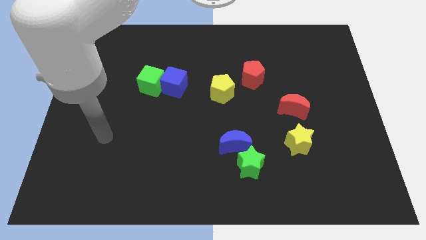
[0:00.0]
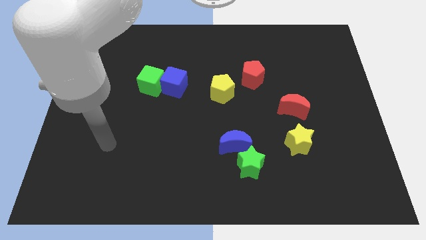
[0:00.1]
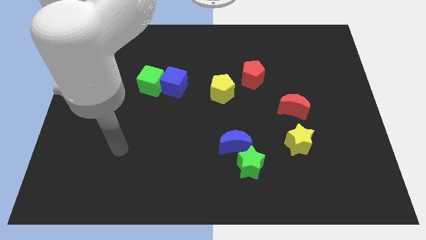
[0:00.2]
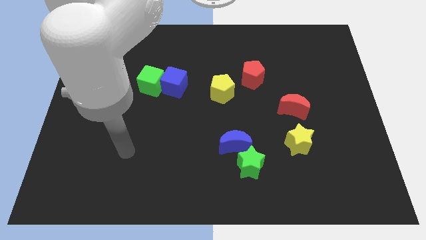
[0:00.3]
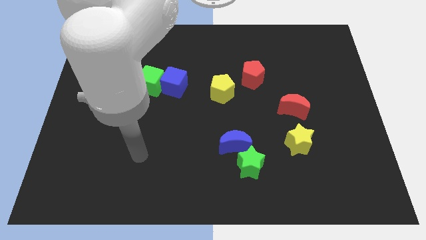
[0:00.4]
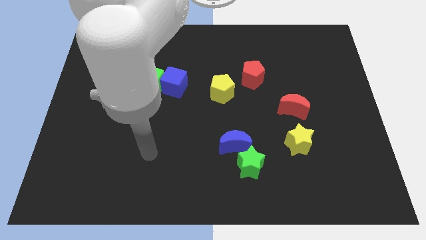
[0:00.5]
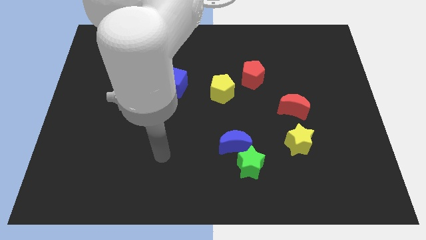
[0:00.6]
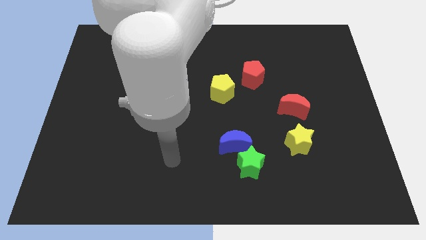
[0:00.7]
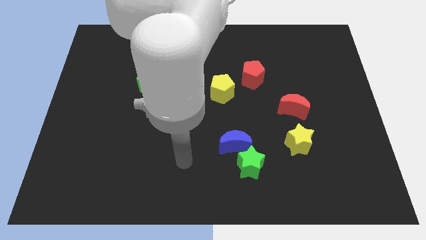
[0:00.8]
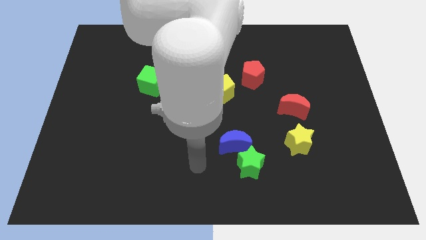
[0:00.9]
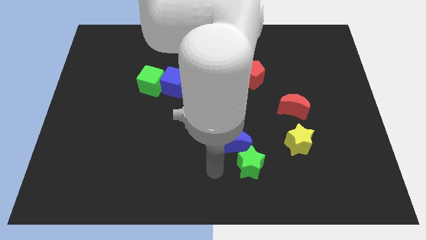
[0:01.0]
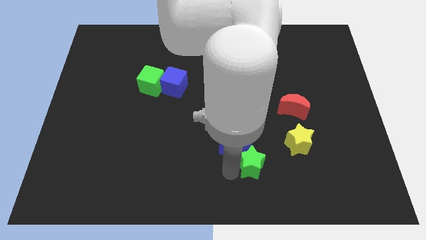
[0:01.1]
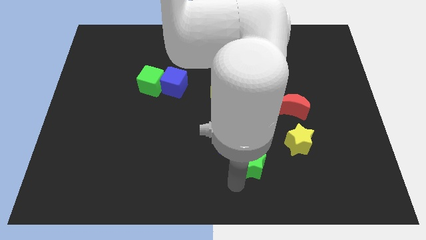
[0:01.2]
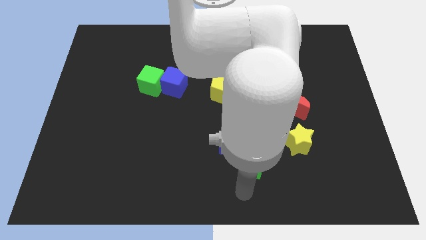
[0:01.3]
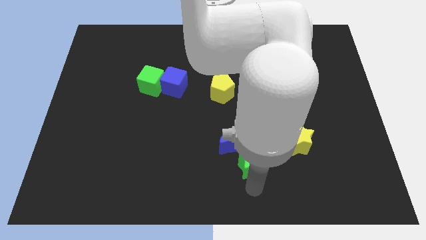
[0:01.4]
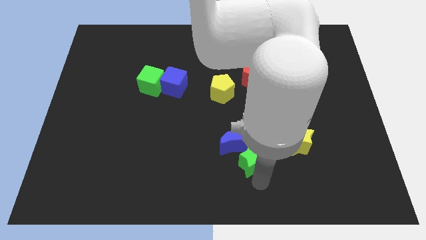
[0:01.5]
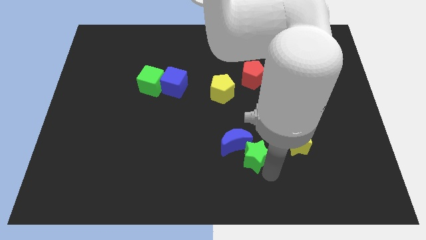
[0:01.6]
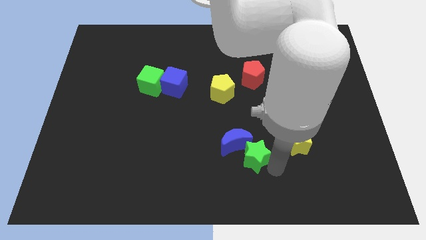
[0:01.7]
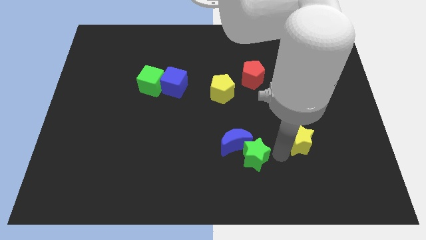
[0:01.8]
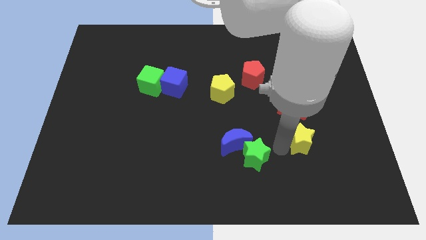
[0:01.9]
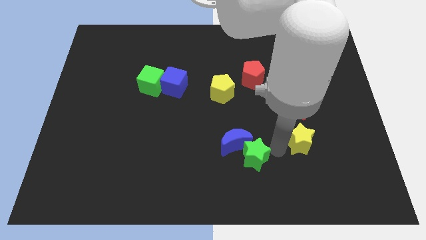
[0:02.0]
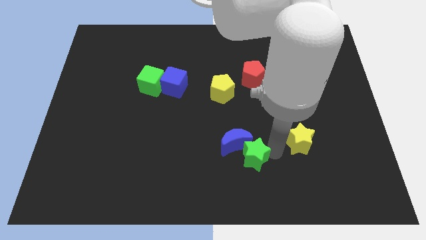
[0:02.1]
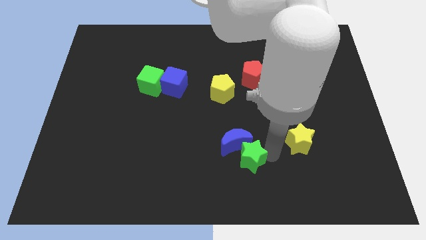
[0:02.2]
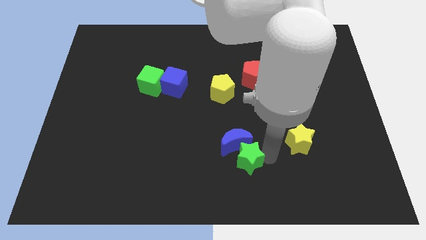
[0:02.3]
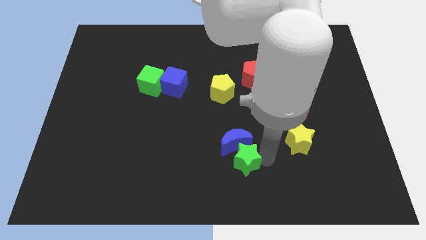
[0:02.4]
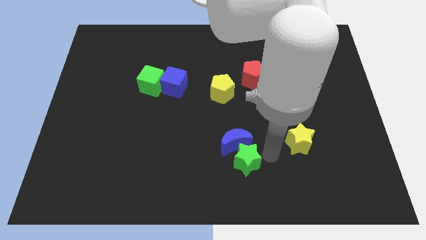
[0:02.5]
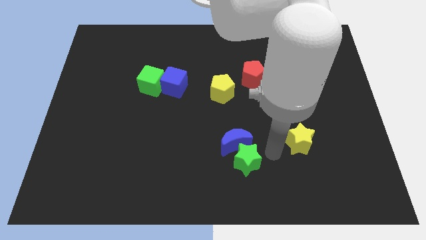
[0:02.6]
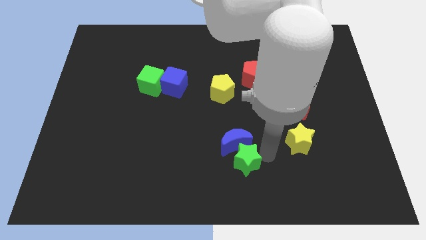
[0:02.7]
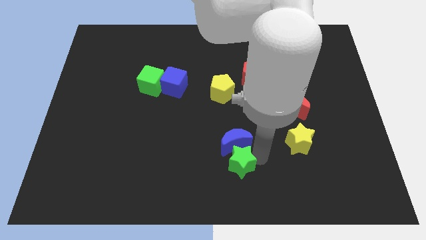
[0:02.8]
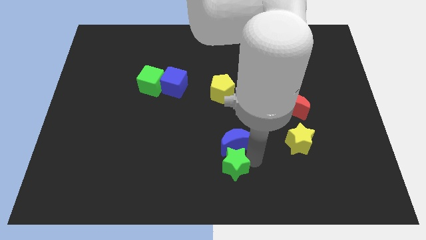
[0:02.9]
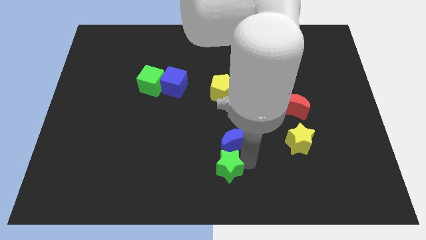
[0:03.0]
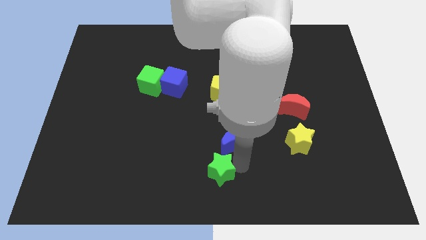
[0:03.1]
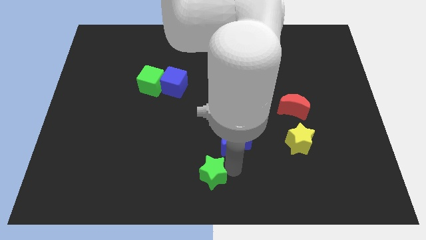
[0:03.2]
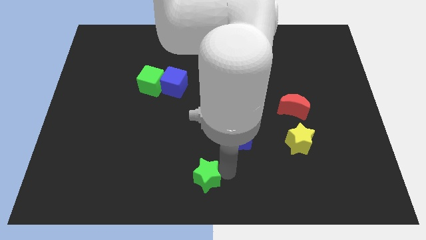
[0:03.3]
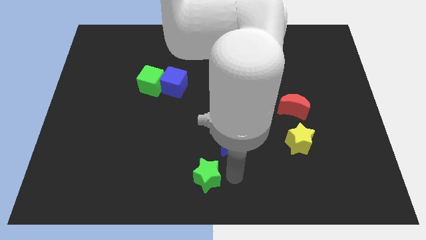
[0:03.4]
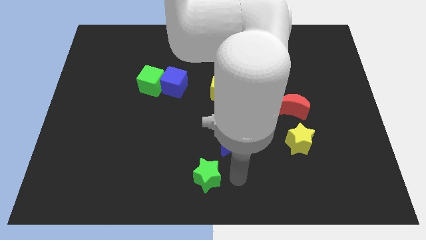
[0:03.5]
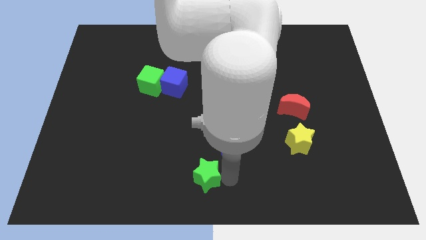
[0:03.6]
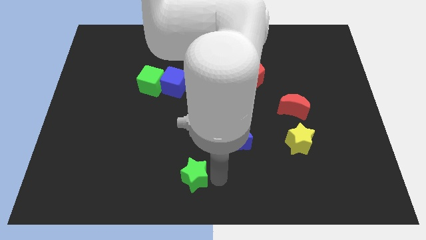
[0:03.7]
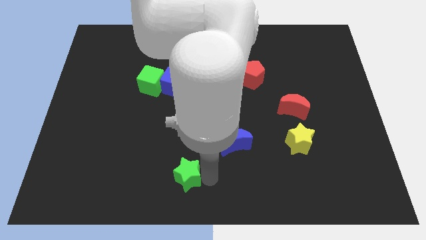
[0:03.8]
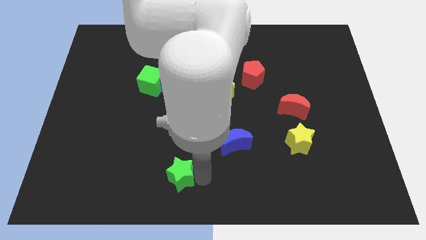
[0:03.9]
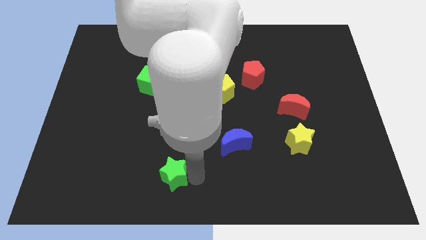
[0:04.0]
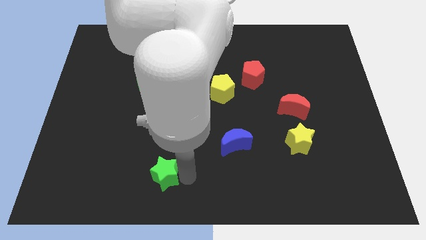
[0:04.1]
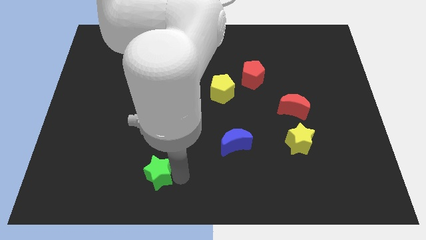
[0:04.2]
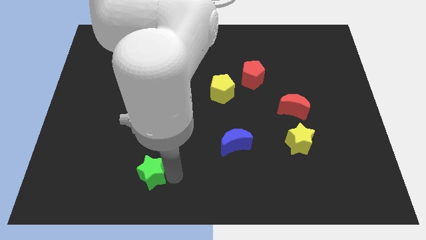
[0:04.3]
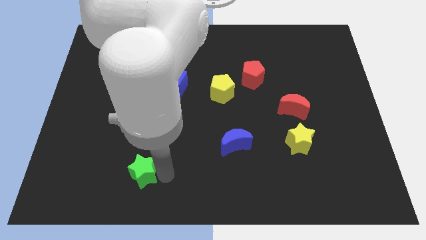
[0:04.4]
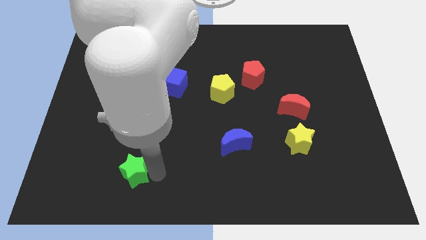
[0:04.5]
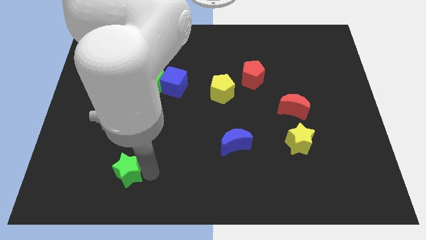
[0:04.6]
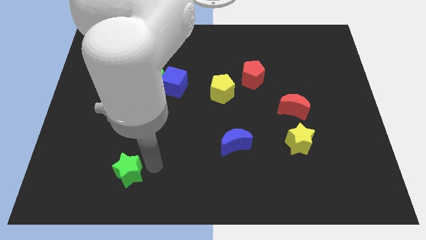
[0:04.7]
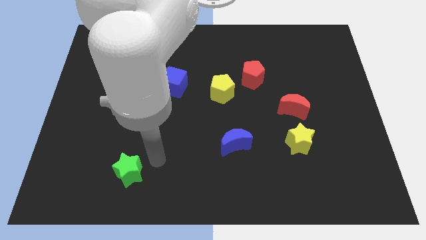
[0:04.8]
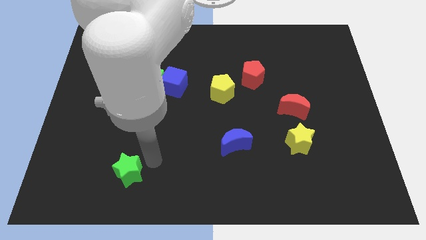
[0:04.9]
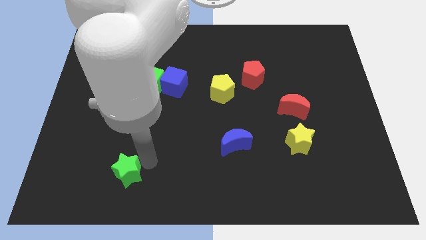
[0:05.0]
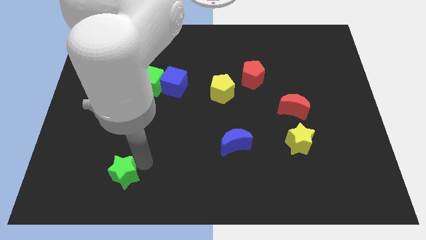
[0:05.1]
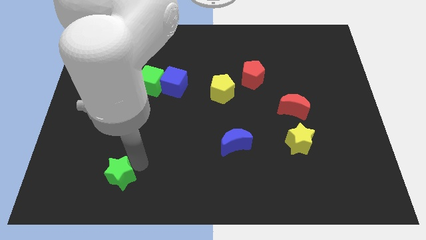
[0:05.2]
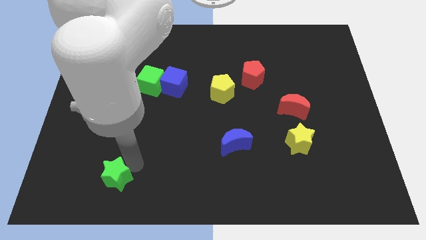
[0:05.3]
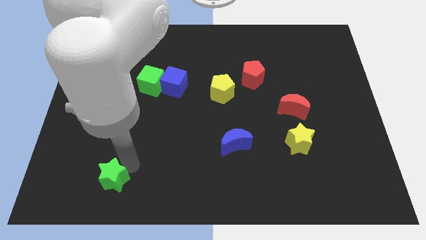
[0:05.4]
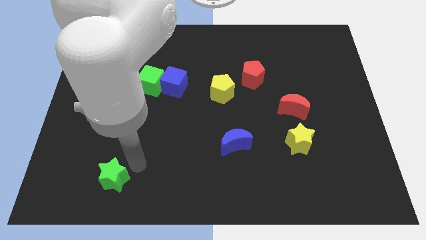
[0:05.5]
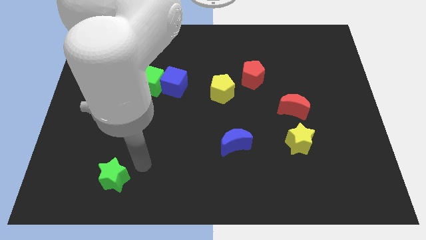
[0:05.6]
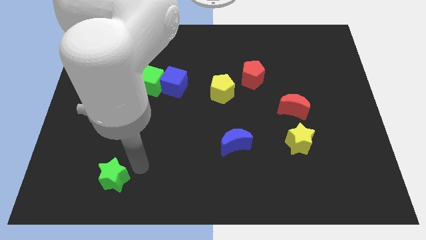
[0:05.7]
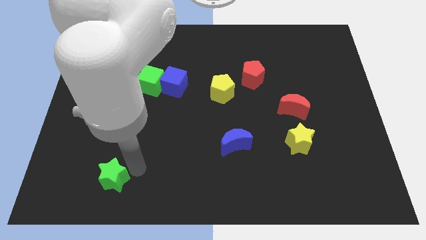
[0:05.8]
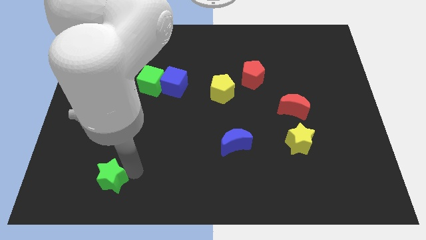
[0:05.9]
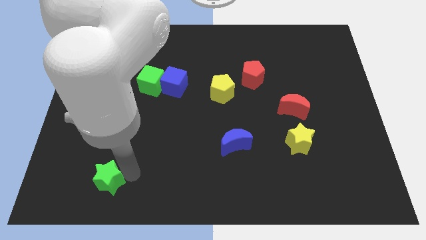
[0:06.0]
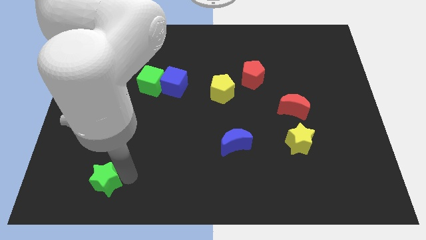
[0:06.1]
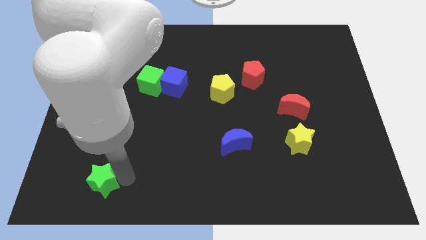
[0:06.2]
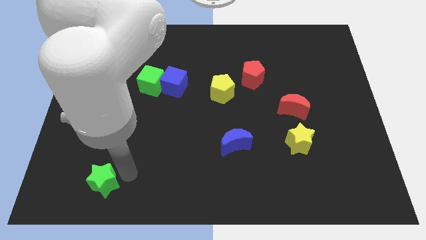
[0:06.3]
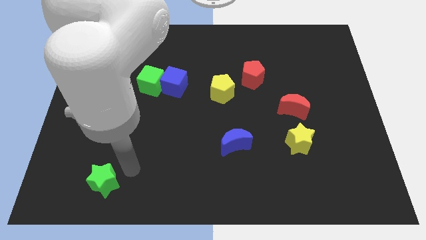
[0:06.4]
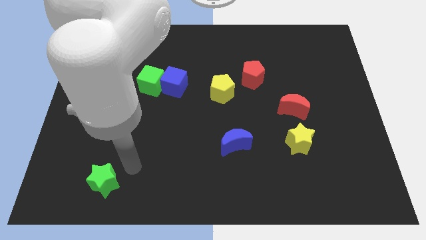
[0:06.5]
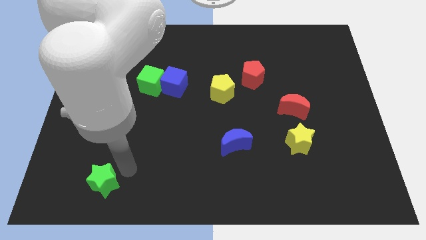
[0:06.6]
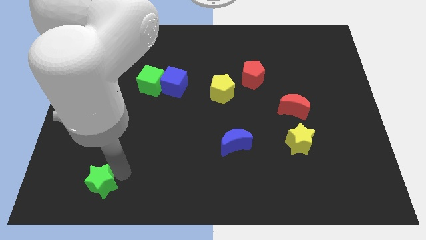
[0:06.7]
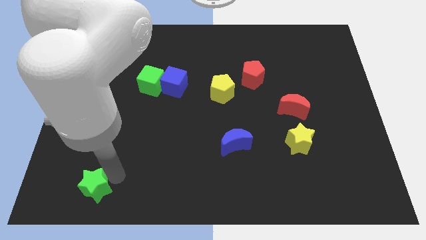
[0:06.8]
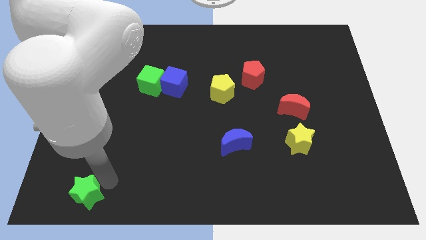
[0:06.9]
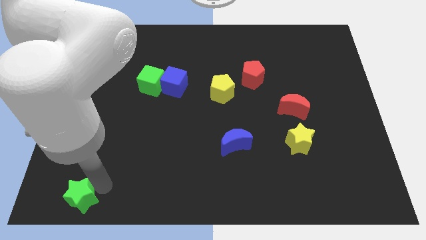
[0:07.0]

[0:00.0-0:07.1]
push the green star to the bottom left corner
